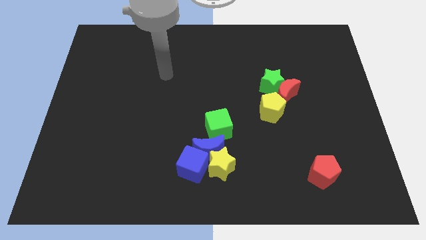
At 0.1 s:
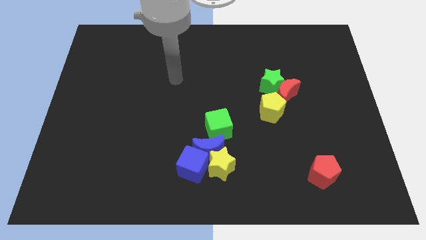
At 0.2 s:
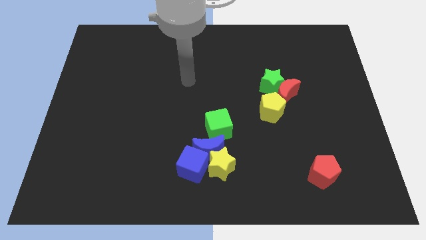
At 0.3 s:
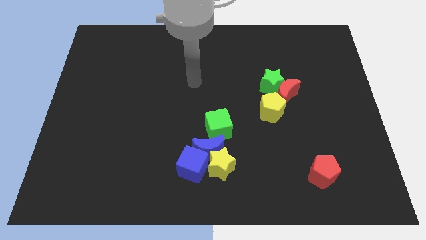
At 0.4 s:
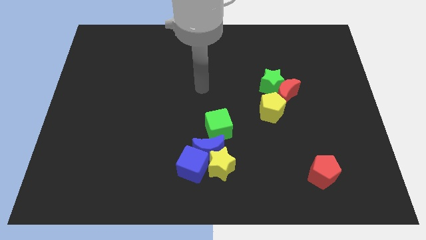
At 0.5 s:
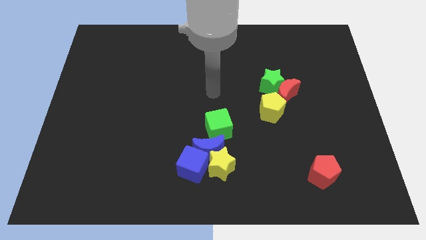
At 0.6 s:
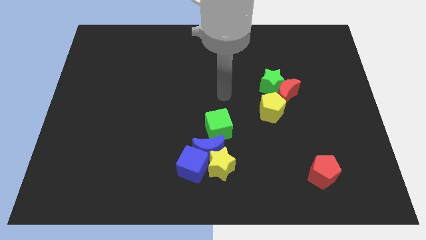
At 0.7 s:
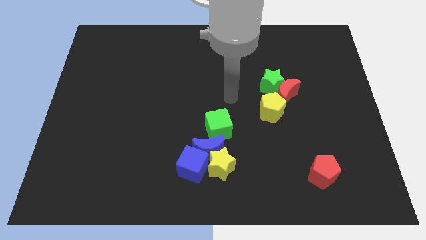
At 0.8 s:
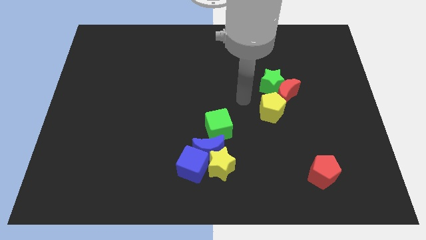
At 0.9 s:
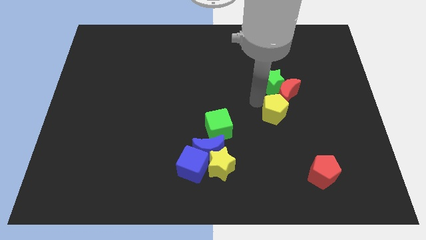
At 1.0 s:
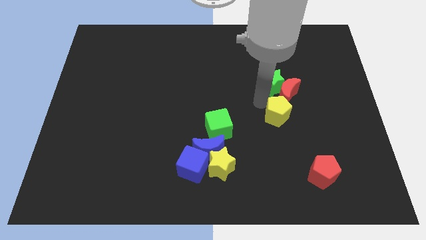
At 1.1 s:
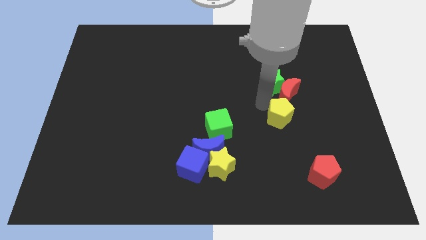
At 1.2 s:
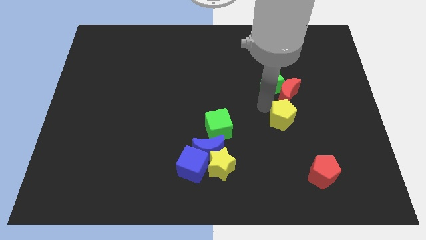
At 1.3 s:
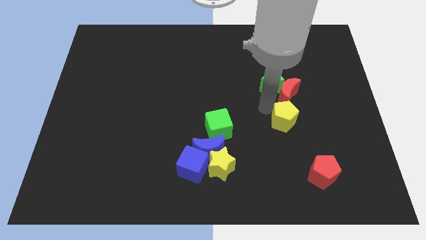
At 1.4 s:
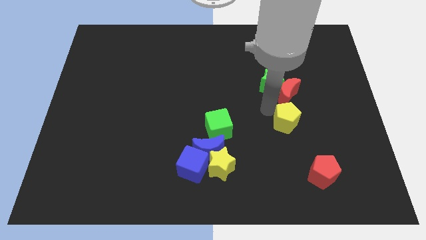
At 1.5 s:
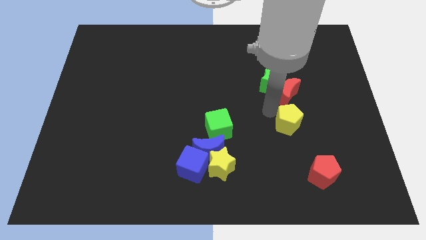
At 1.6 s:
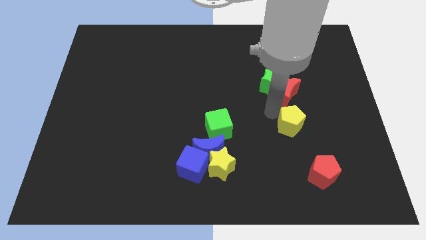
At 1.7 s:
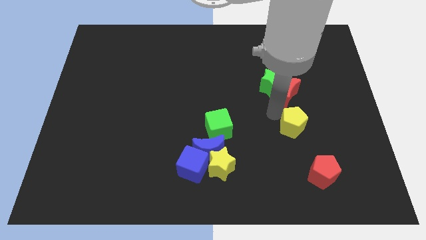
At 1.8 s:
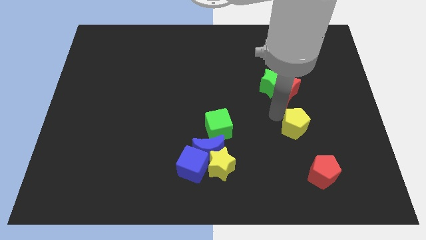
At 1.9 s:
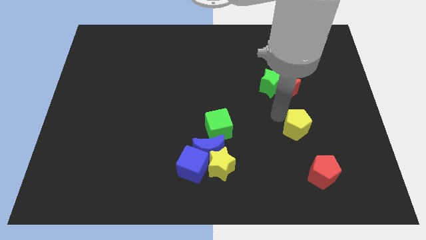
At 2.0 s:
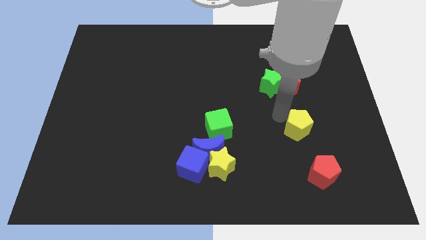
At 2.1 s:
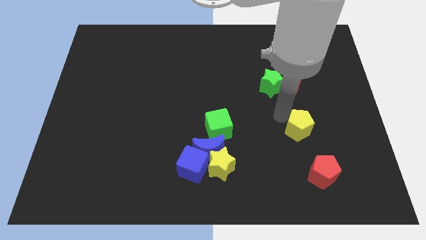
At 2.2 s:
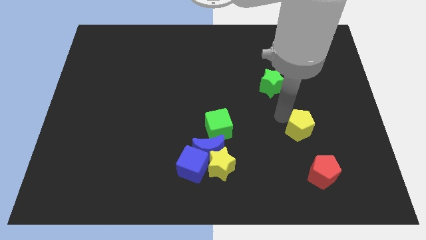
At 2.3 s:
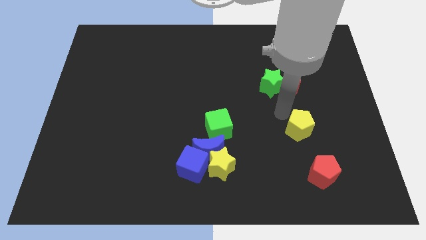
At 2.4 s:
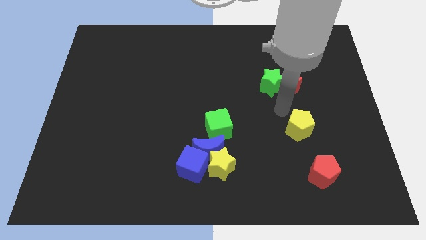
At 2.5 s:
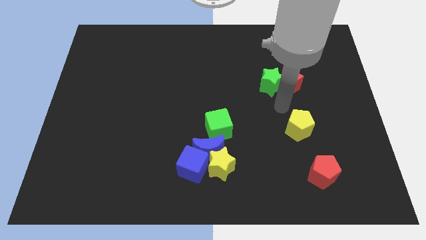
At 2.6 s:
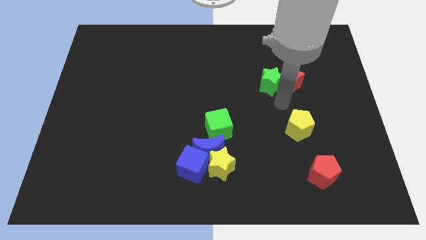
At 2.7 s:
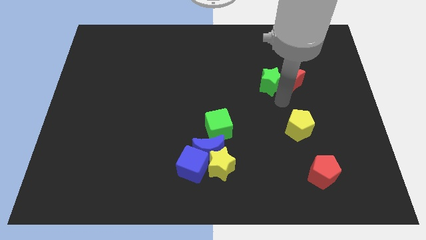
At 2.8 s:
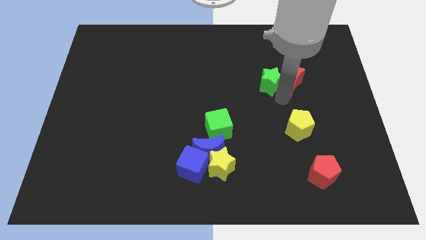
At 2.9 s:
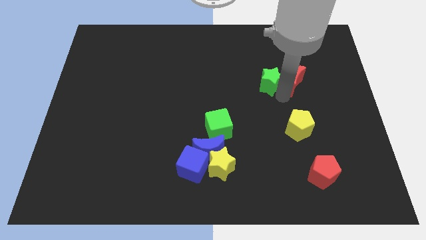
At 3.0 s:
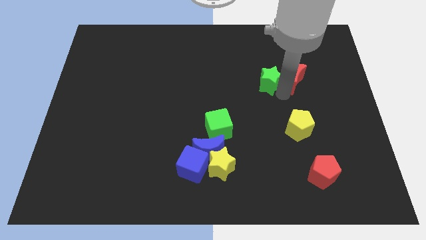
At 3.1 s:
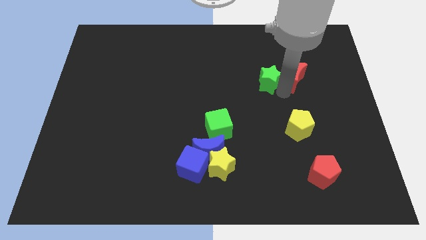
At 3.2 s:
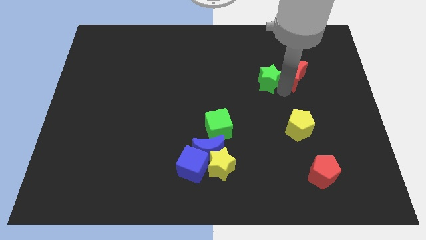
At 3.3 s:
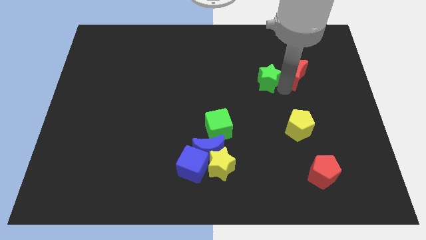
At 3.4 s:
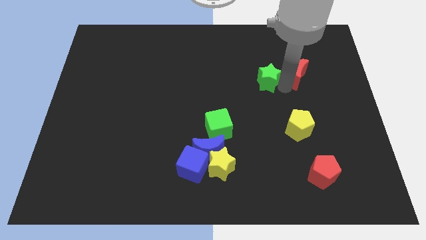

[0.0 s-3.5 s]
separate the red moon from the green star and yellow pentagon

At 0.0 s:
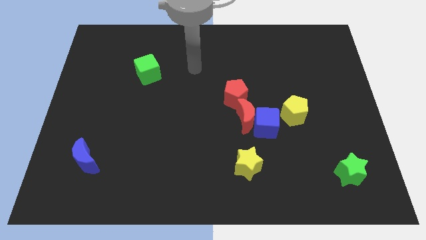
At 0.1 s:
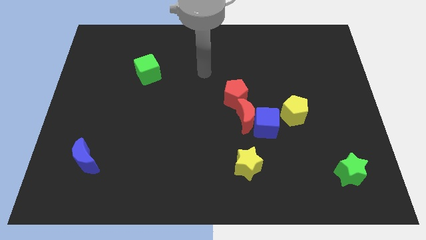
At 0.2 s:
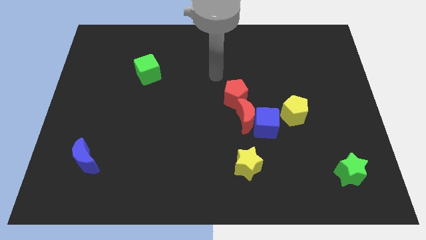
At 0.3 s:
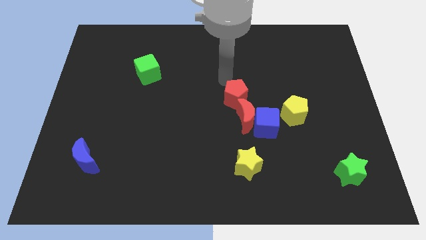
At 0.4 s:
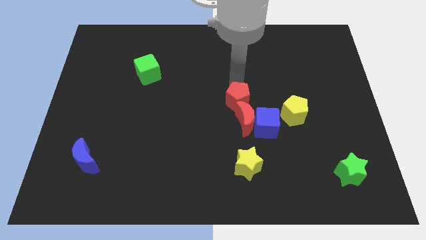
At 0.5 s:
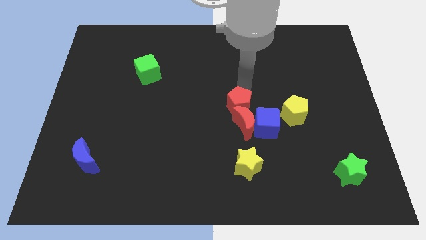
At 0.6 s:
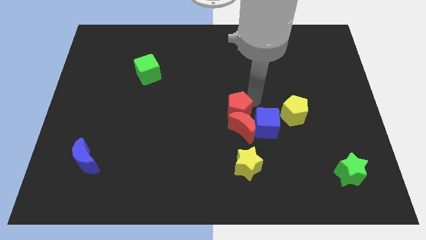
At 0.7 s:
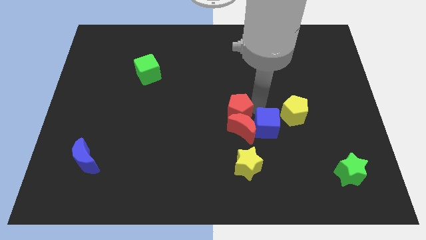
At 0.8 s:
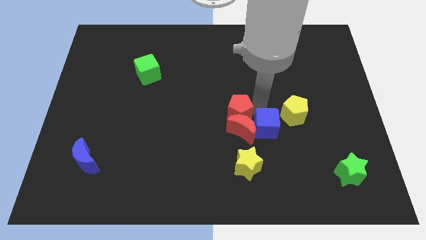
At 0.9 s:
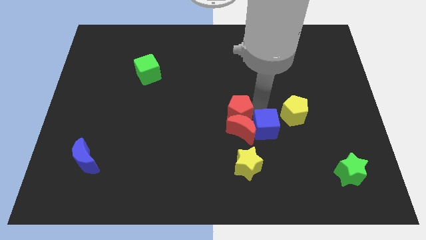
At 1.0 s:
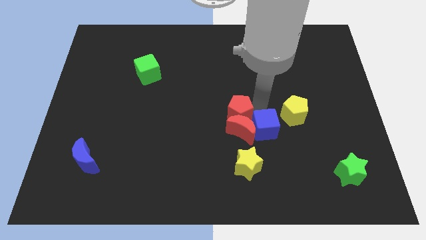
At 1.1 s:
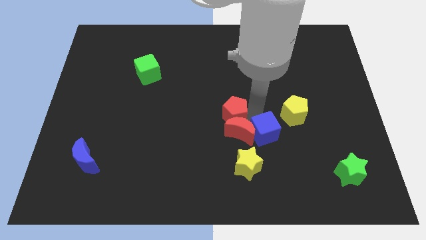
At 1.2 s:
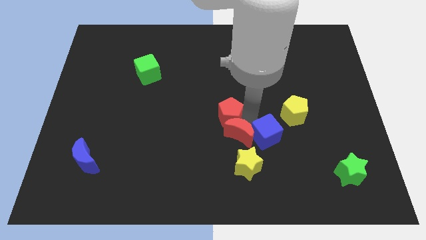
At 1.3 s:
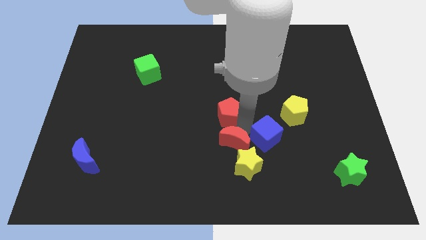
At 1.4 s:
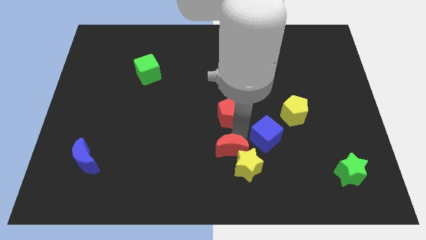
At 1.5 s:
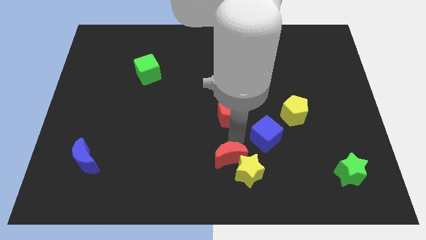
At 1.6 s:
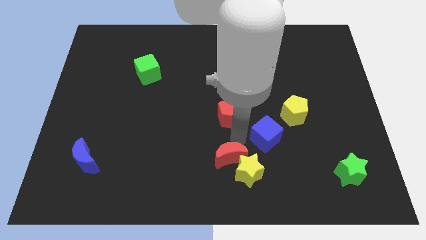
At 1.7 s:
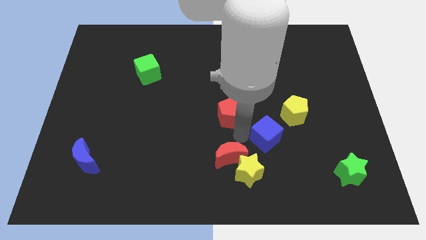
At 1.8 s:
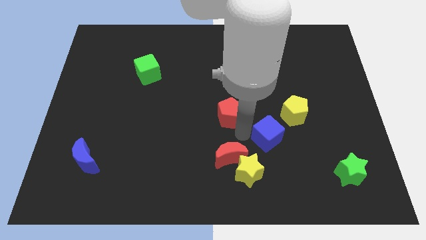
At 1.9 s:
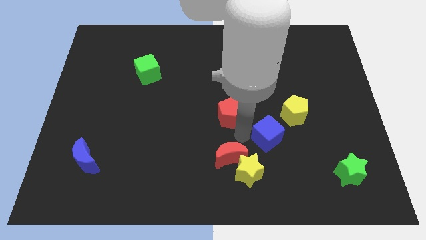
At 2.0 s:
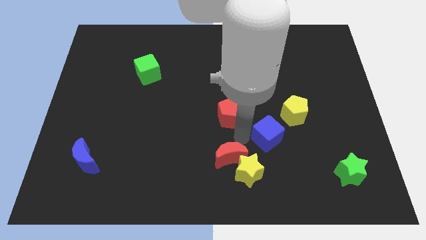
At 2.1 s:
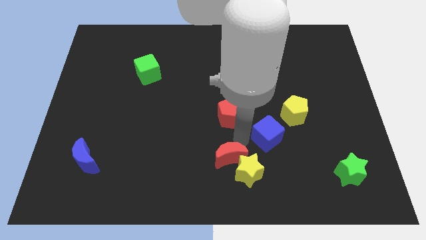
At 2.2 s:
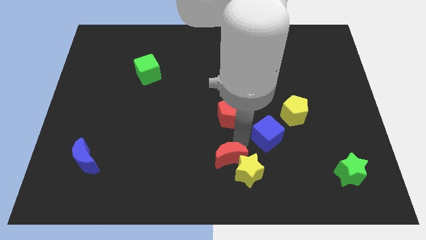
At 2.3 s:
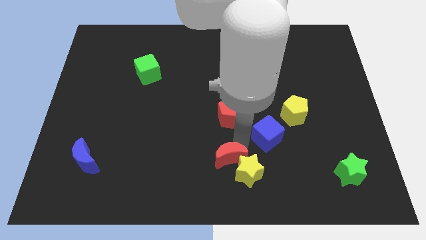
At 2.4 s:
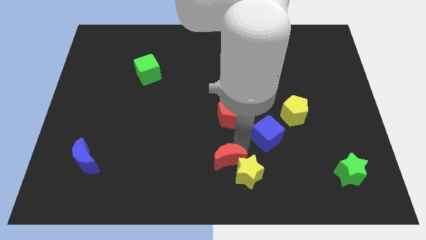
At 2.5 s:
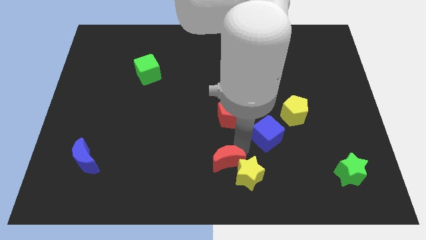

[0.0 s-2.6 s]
separate the red moon from the blue cube and red pentagon

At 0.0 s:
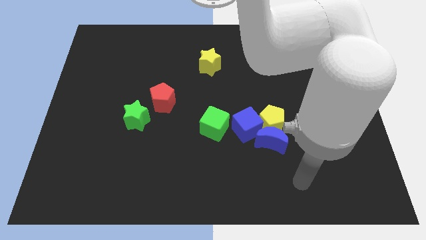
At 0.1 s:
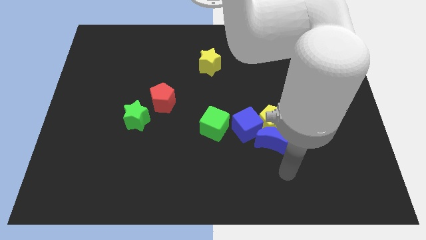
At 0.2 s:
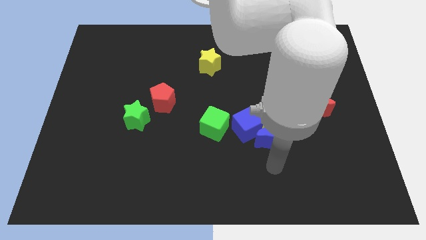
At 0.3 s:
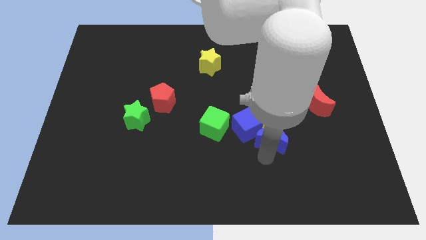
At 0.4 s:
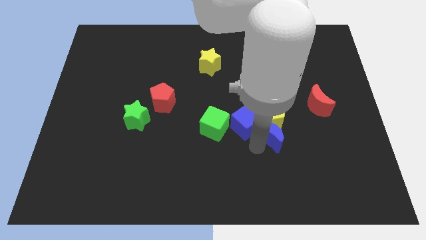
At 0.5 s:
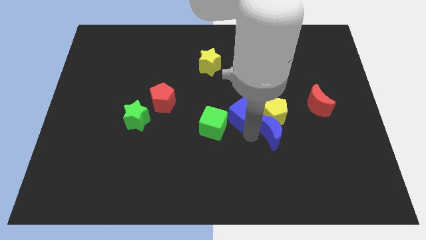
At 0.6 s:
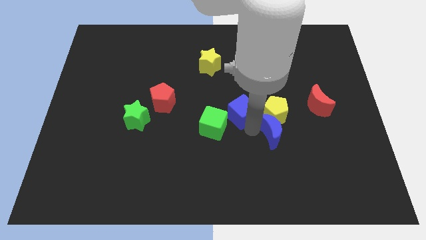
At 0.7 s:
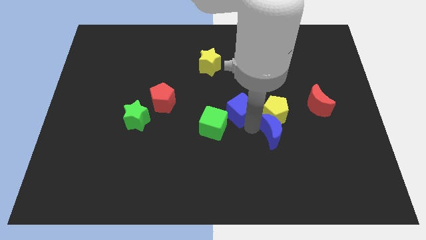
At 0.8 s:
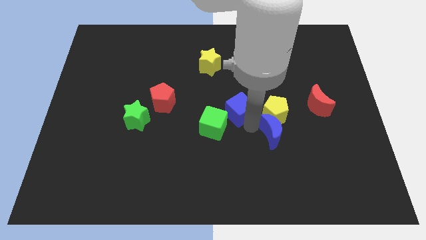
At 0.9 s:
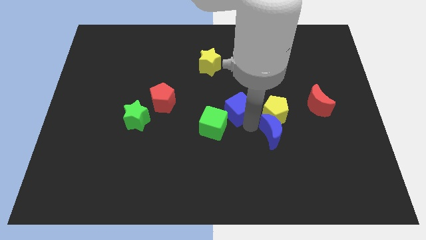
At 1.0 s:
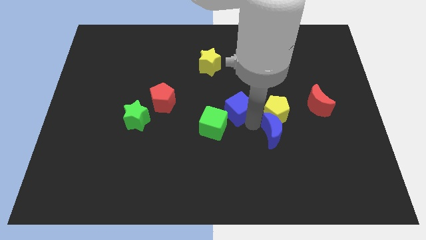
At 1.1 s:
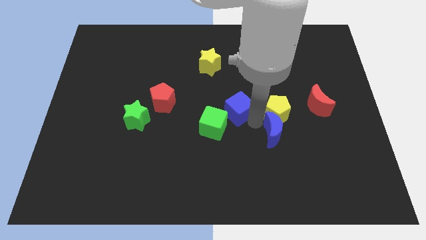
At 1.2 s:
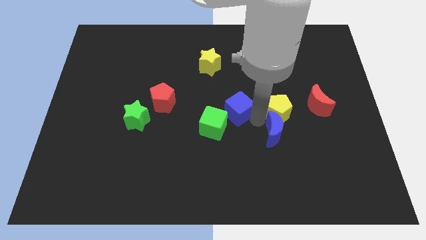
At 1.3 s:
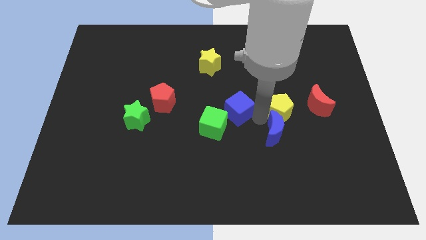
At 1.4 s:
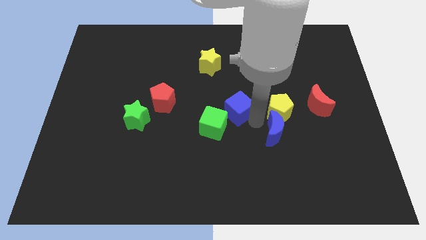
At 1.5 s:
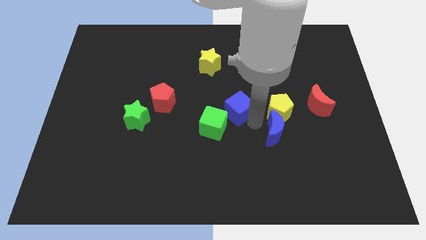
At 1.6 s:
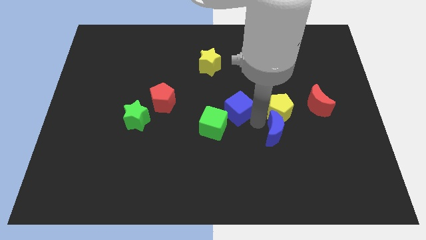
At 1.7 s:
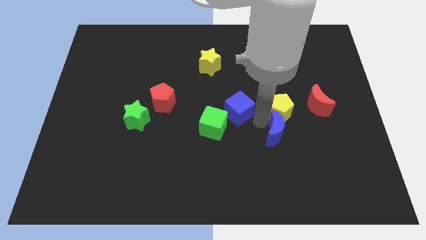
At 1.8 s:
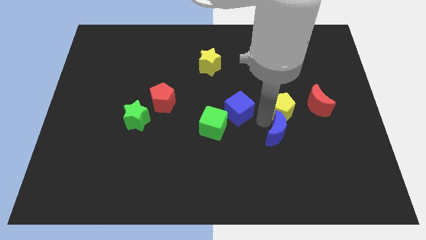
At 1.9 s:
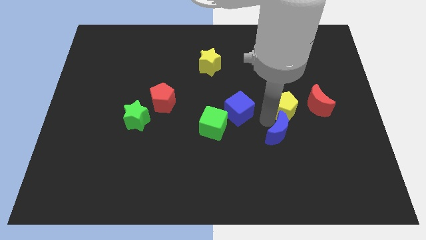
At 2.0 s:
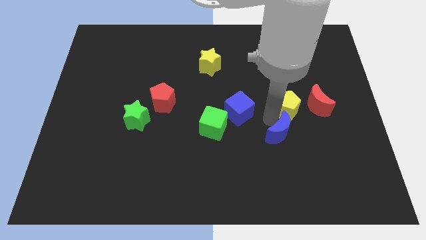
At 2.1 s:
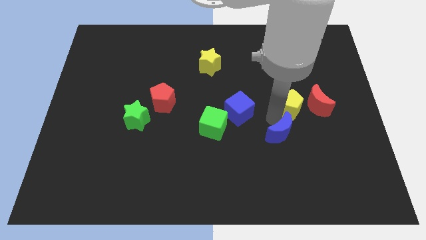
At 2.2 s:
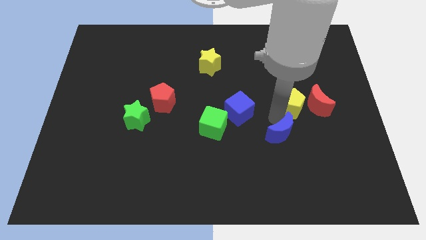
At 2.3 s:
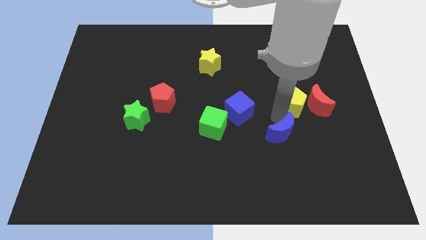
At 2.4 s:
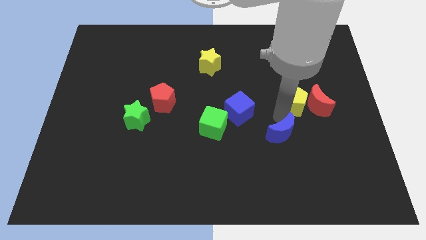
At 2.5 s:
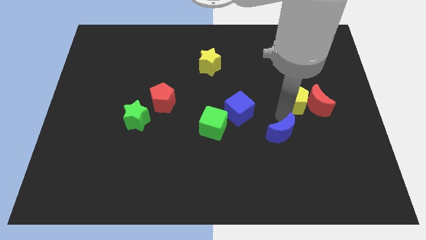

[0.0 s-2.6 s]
move the yellow pentagon away from the blue moon and blue cube

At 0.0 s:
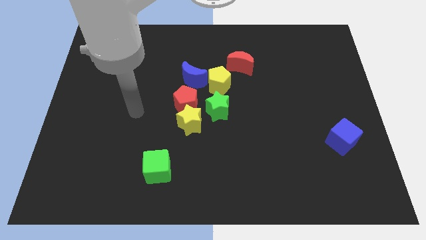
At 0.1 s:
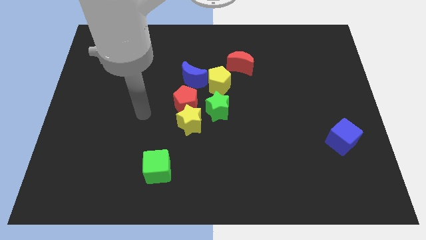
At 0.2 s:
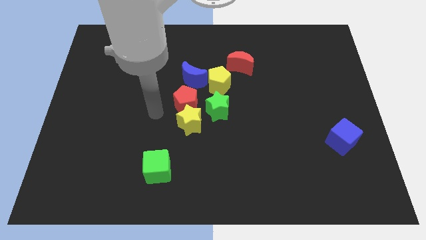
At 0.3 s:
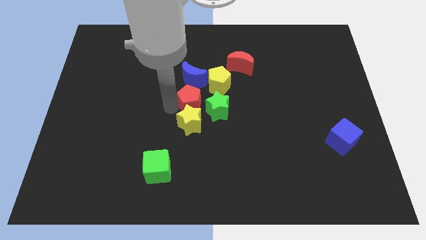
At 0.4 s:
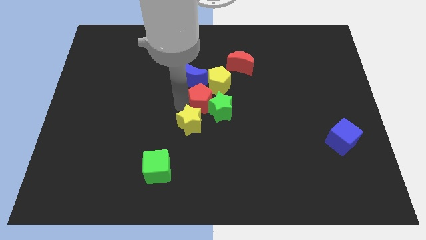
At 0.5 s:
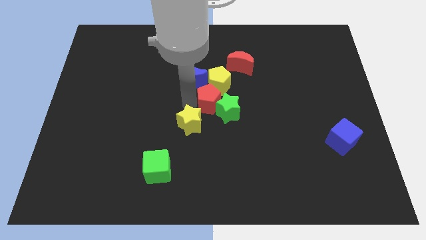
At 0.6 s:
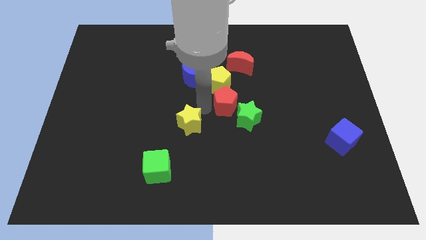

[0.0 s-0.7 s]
separate the yellow star from the red pentagon and green star
